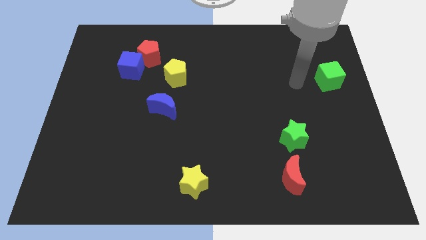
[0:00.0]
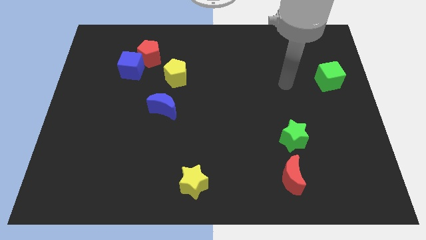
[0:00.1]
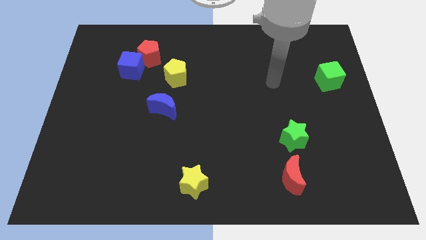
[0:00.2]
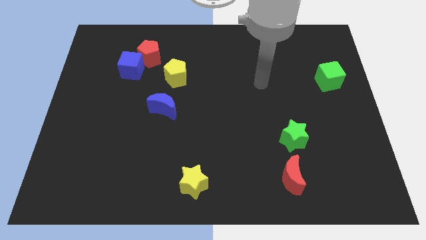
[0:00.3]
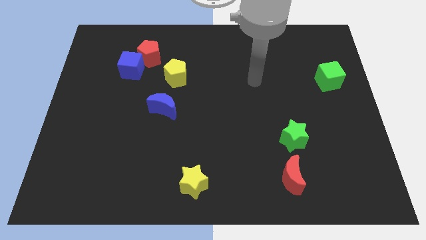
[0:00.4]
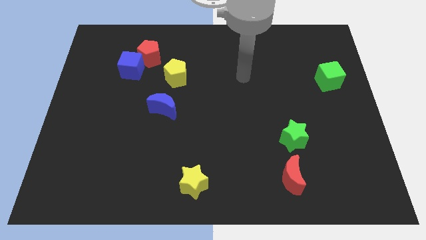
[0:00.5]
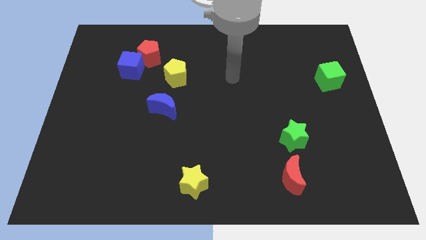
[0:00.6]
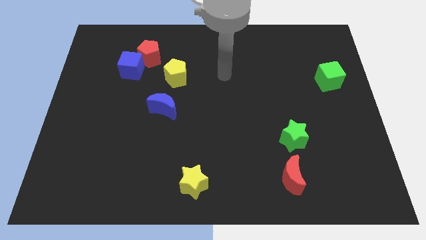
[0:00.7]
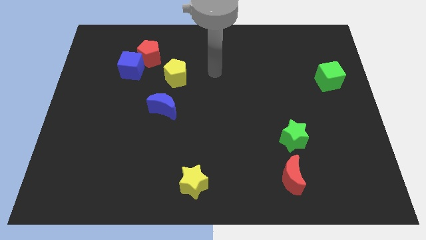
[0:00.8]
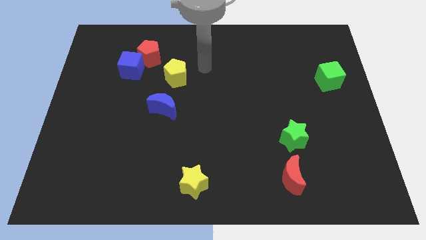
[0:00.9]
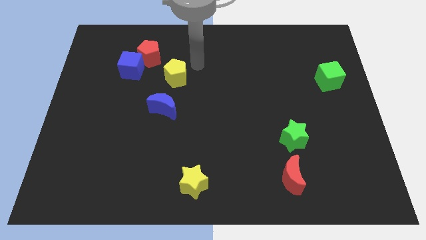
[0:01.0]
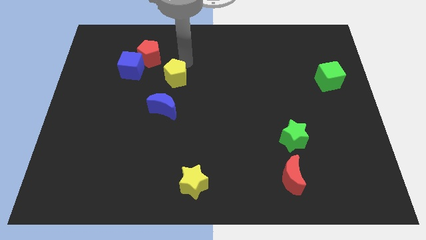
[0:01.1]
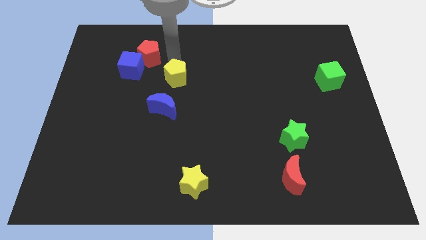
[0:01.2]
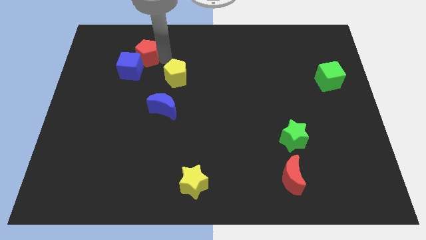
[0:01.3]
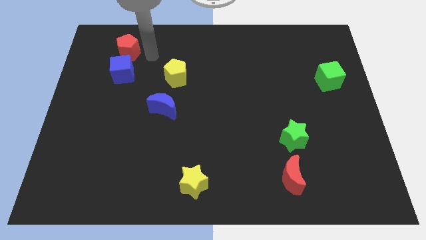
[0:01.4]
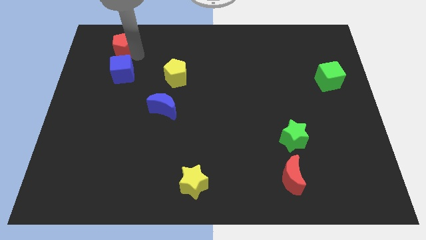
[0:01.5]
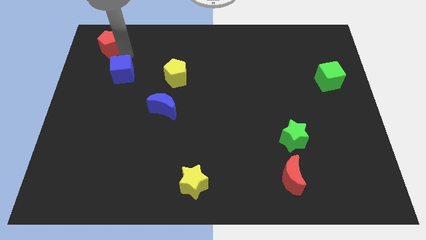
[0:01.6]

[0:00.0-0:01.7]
pull the blue cube apart from the red pentagon

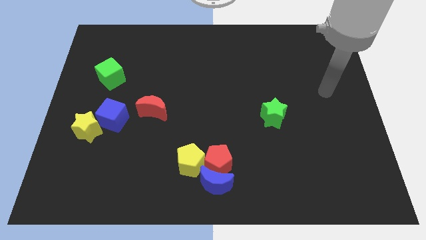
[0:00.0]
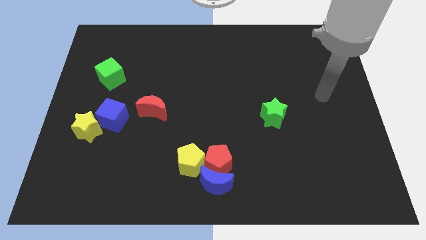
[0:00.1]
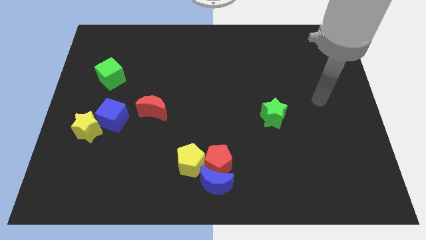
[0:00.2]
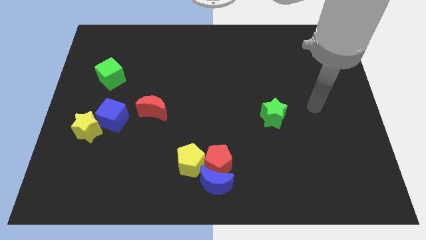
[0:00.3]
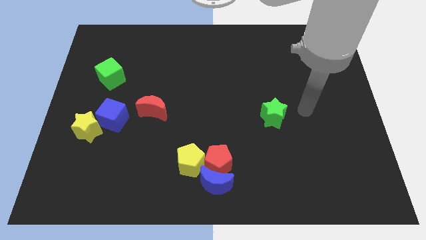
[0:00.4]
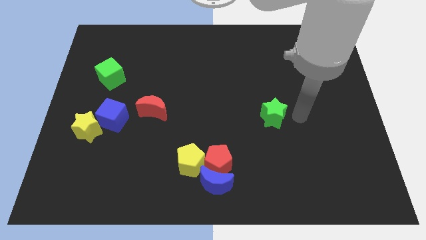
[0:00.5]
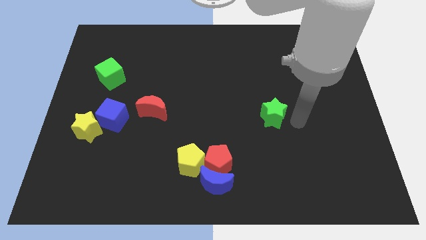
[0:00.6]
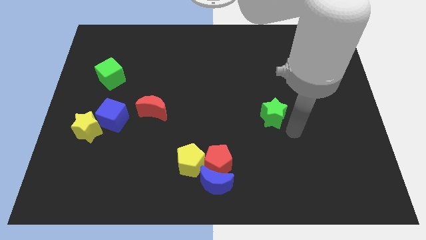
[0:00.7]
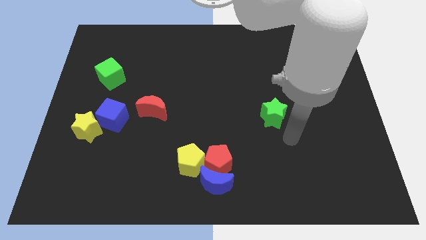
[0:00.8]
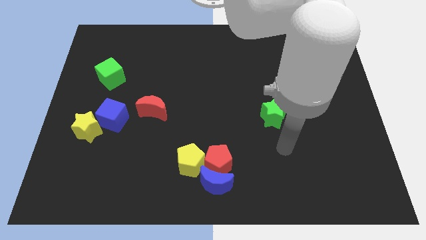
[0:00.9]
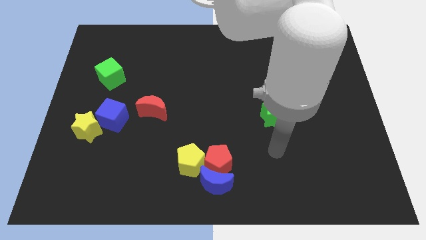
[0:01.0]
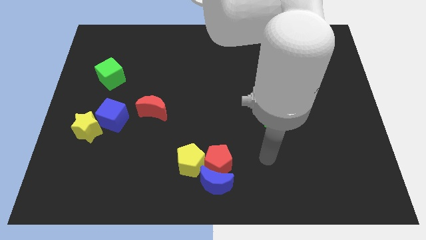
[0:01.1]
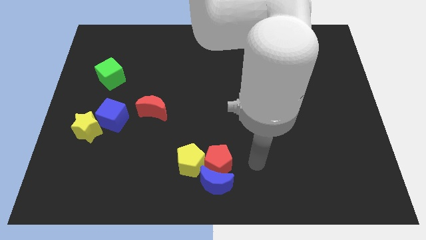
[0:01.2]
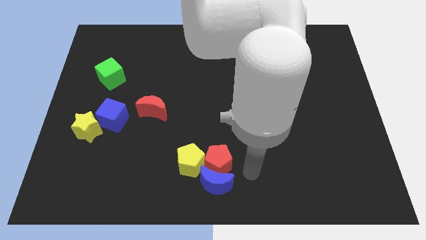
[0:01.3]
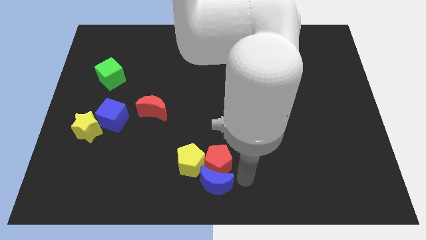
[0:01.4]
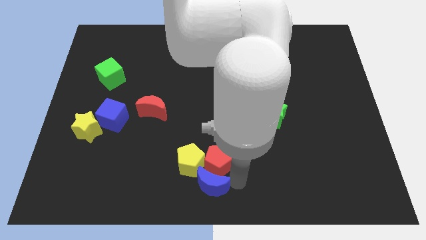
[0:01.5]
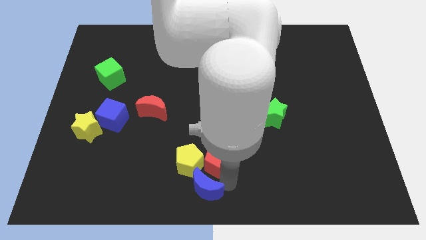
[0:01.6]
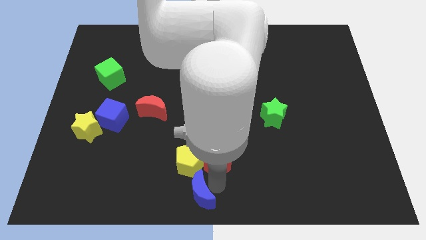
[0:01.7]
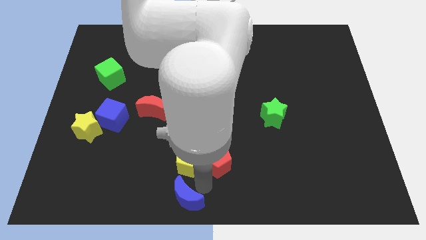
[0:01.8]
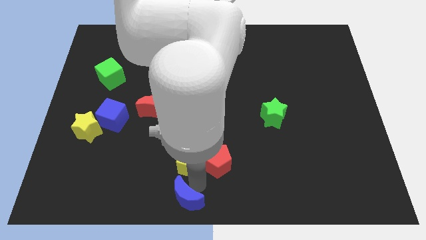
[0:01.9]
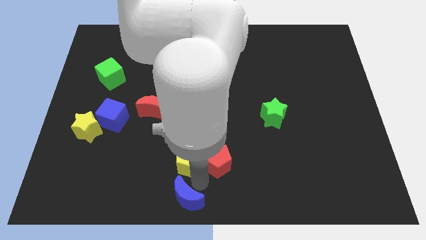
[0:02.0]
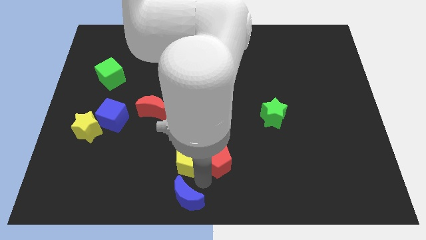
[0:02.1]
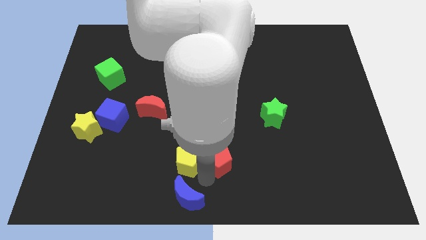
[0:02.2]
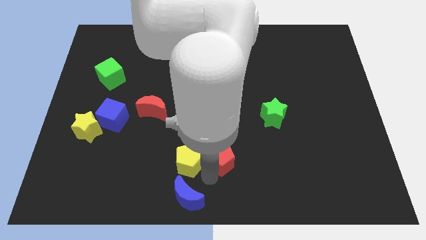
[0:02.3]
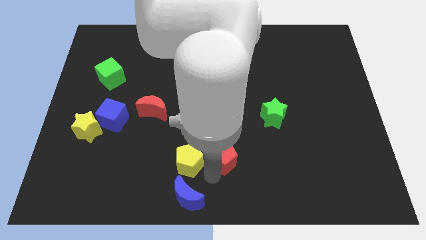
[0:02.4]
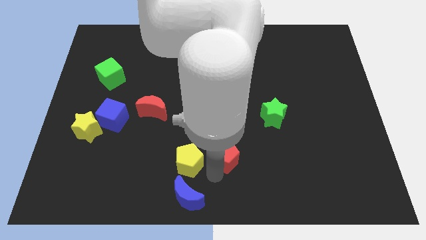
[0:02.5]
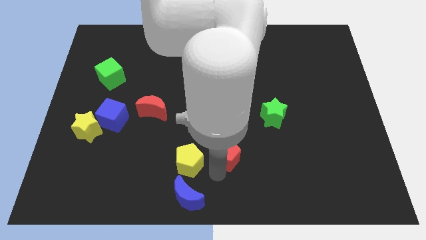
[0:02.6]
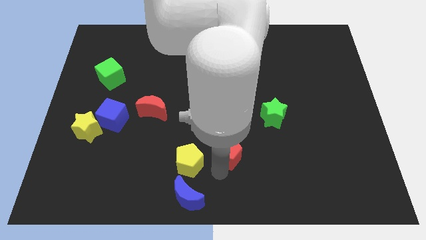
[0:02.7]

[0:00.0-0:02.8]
pull the red pentagon apart from the blue moon and yellow pentagon

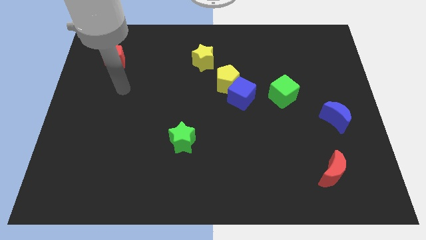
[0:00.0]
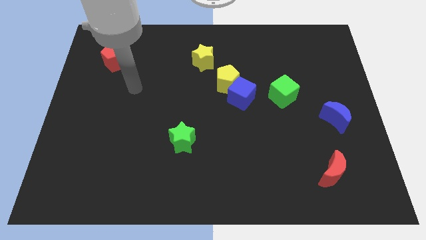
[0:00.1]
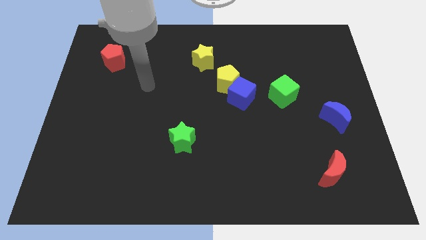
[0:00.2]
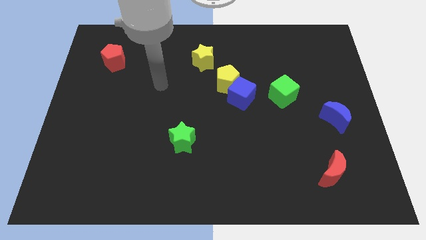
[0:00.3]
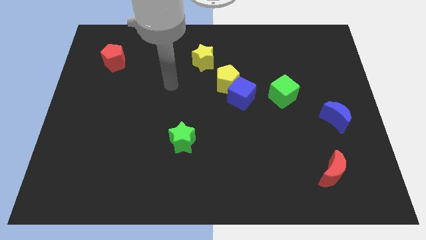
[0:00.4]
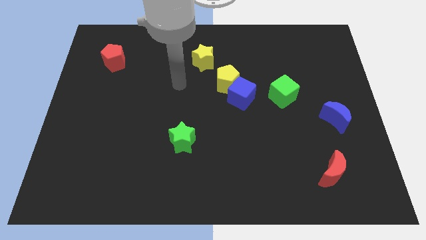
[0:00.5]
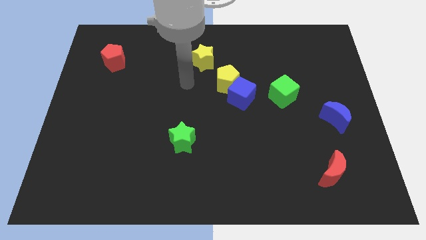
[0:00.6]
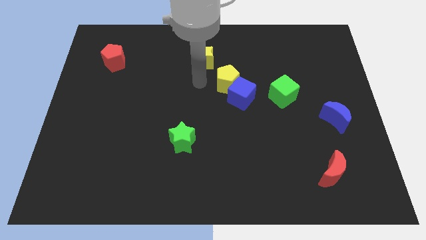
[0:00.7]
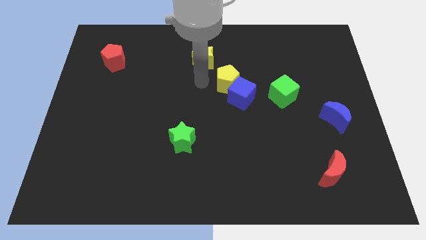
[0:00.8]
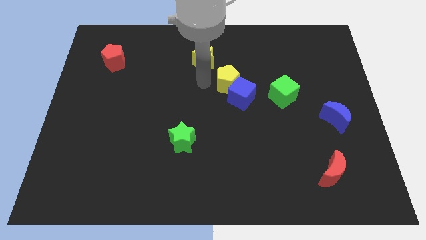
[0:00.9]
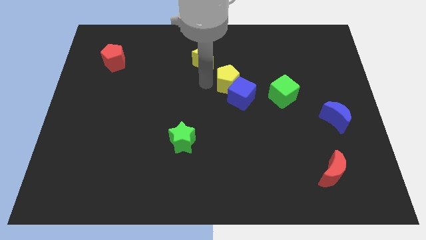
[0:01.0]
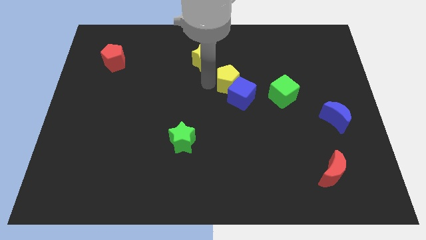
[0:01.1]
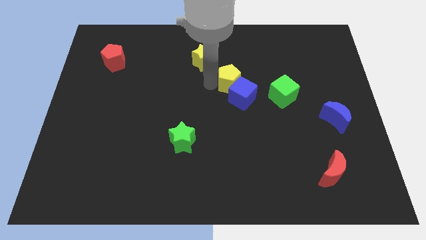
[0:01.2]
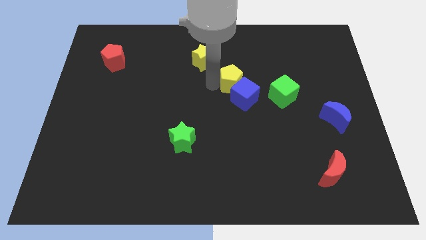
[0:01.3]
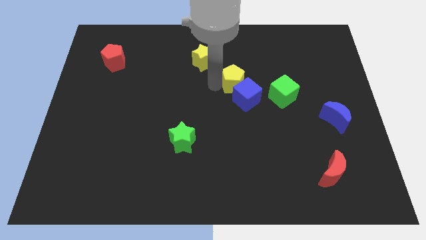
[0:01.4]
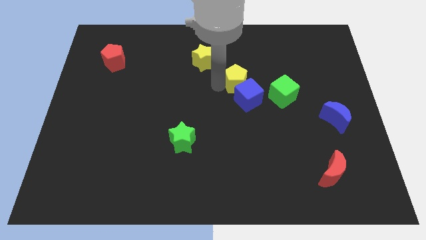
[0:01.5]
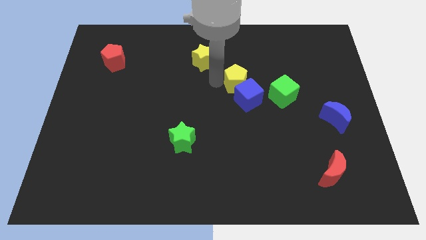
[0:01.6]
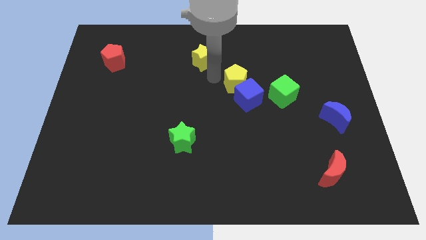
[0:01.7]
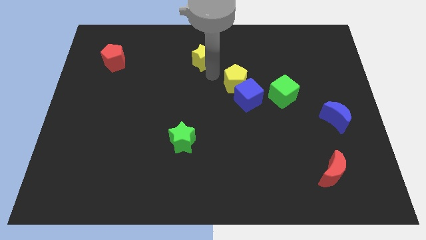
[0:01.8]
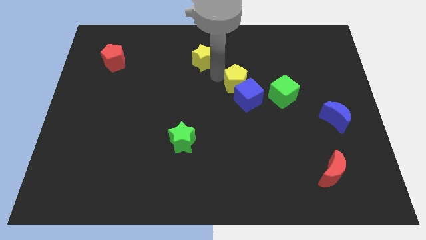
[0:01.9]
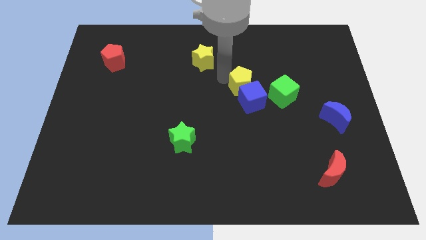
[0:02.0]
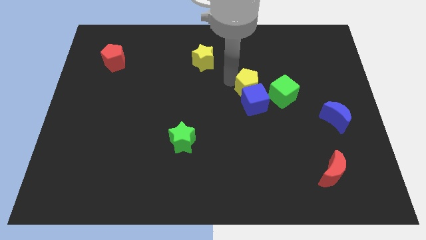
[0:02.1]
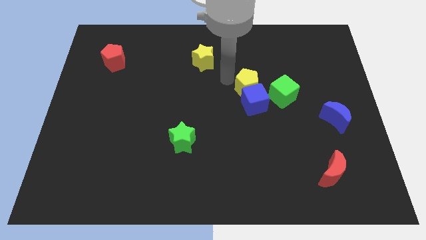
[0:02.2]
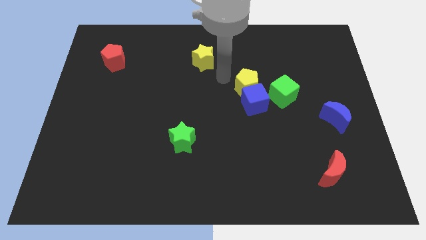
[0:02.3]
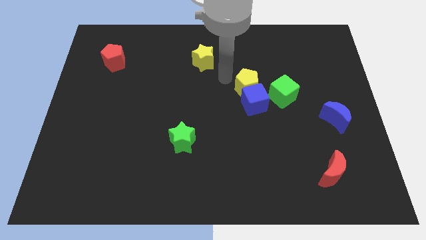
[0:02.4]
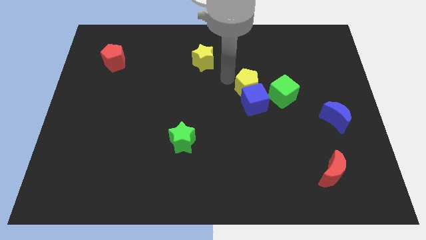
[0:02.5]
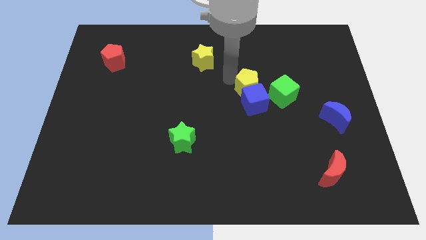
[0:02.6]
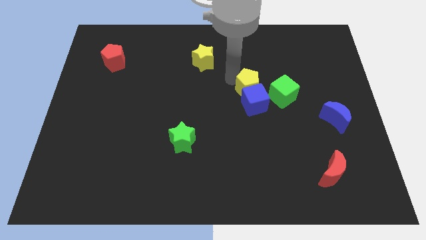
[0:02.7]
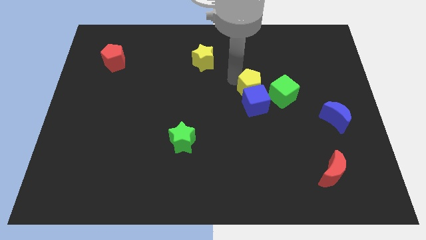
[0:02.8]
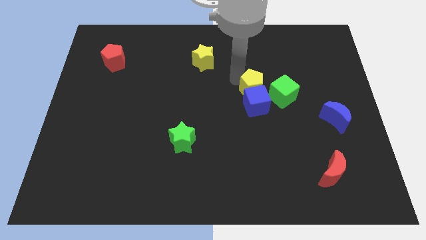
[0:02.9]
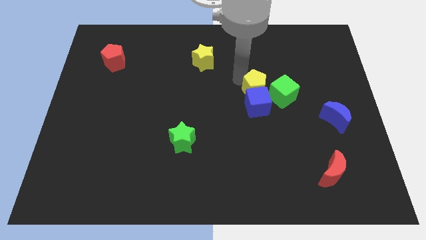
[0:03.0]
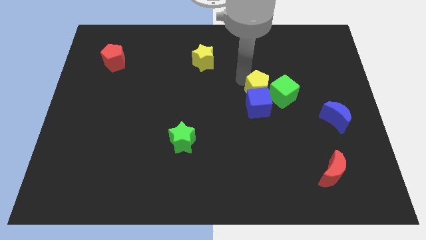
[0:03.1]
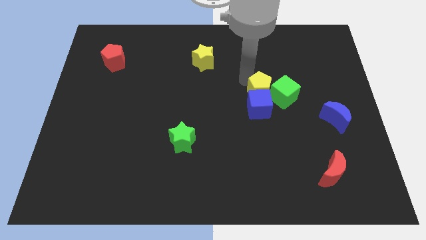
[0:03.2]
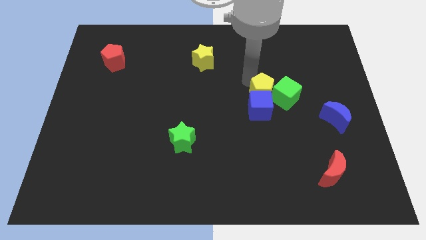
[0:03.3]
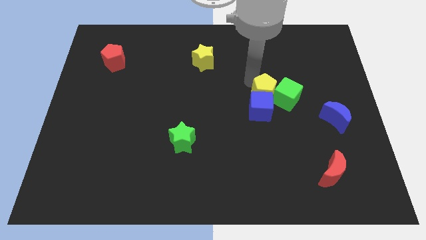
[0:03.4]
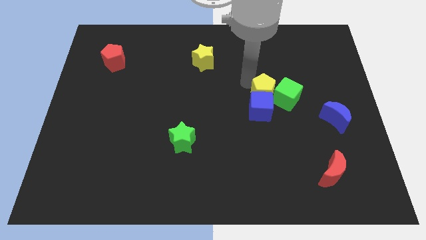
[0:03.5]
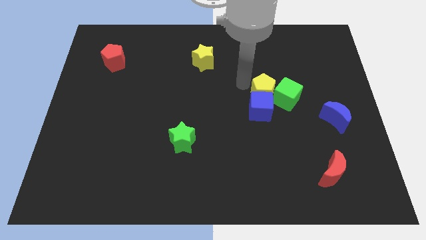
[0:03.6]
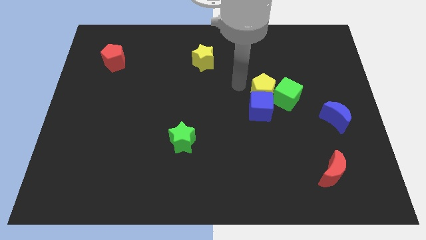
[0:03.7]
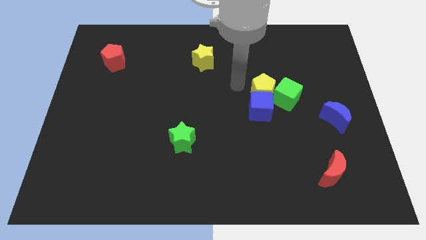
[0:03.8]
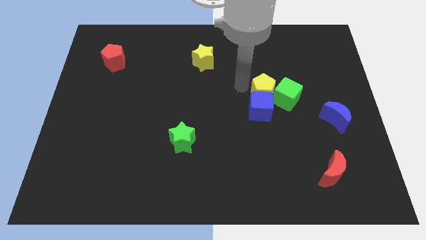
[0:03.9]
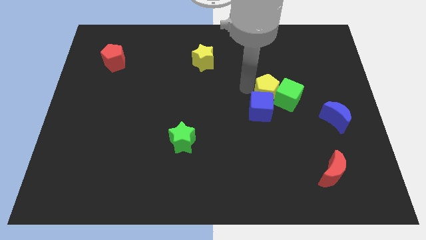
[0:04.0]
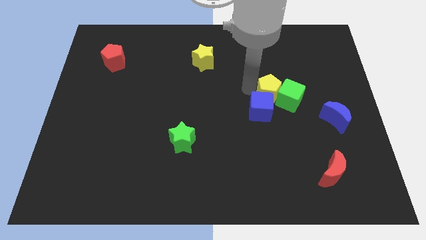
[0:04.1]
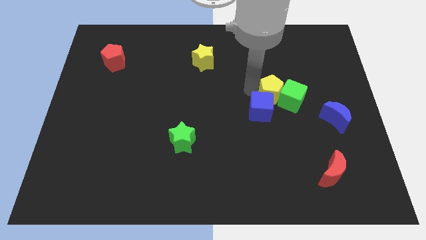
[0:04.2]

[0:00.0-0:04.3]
pull the yellow pentagon apart from the blue cube and yellow star

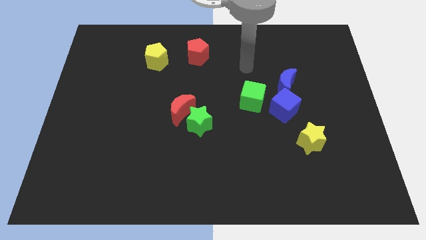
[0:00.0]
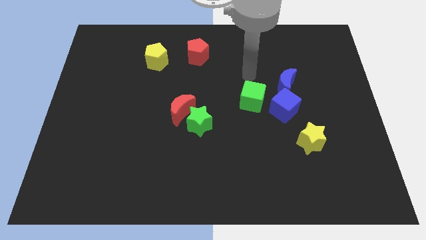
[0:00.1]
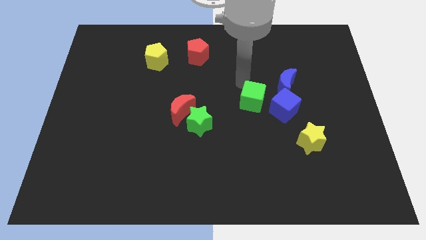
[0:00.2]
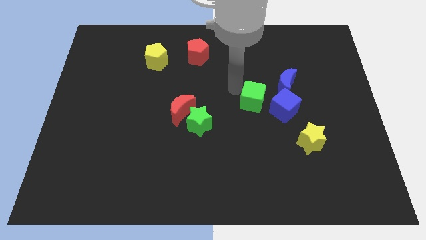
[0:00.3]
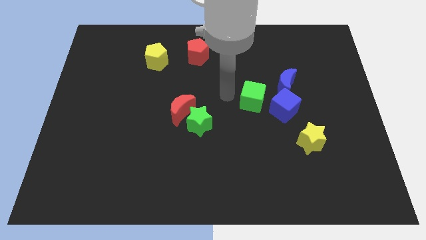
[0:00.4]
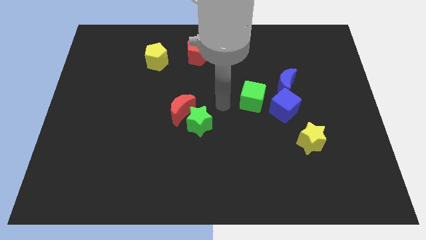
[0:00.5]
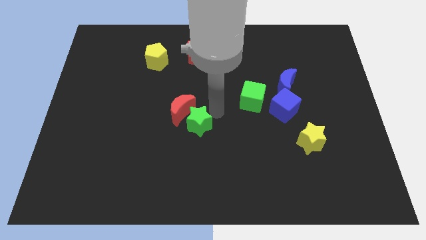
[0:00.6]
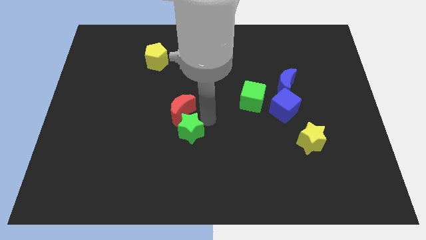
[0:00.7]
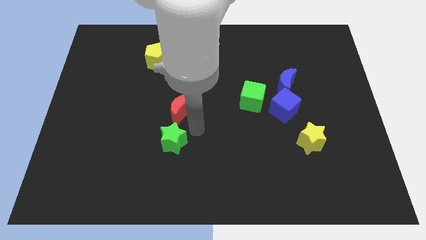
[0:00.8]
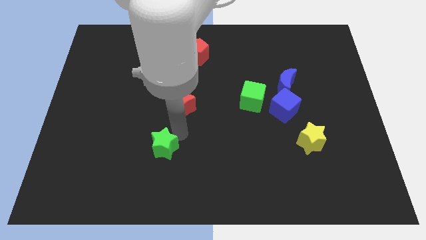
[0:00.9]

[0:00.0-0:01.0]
separate the red moon from the green star
